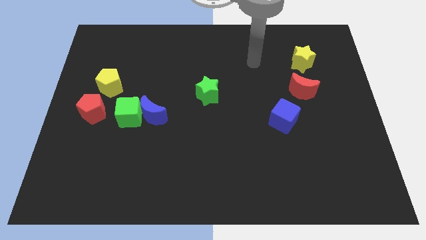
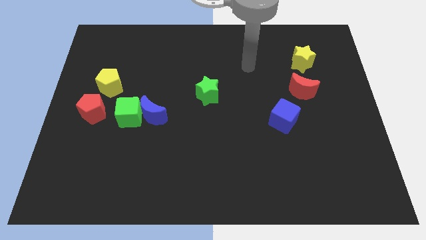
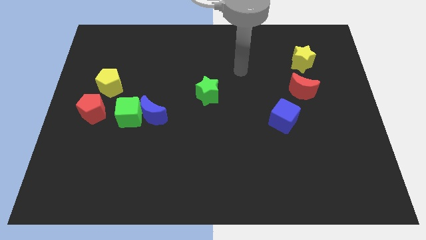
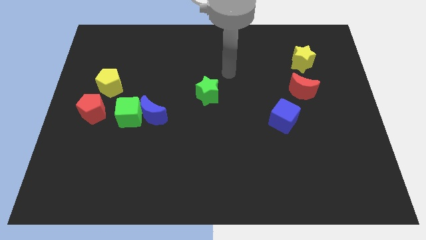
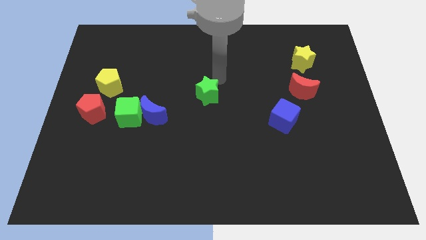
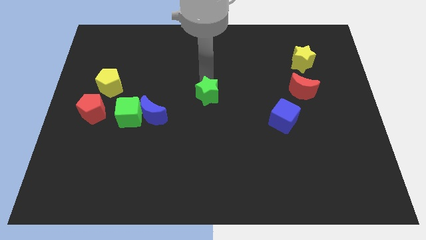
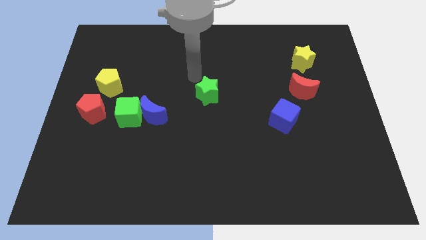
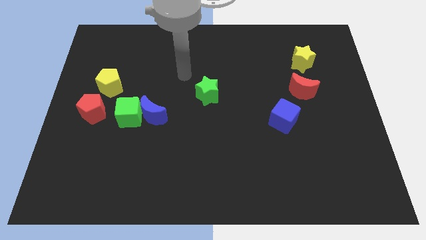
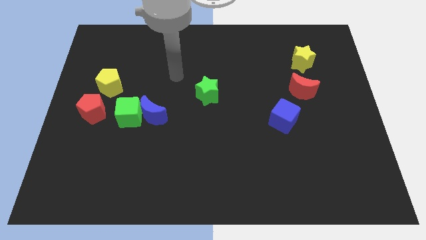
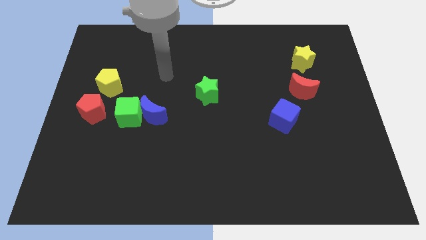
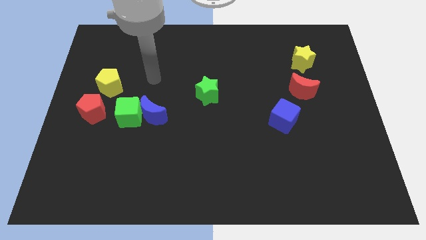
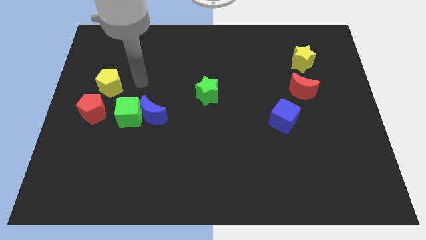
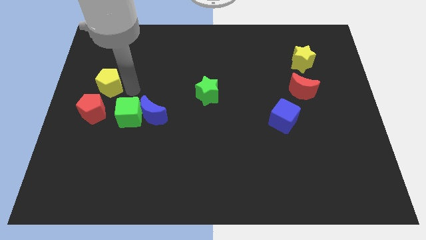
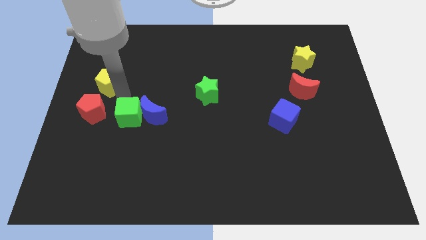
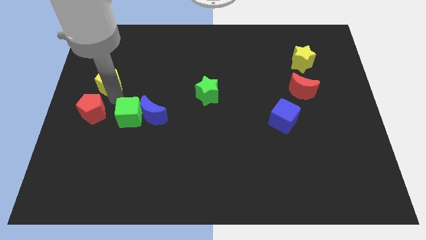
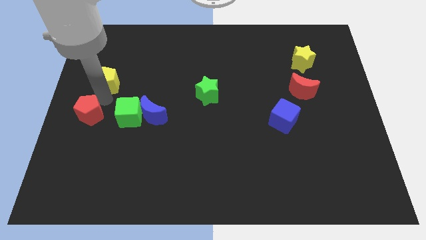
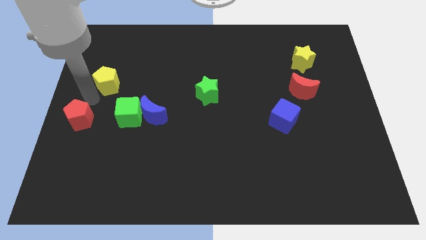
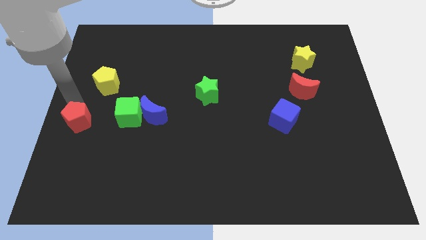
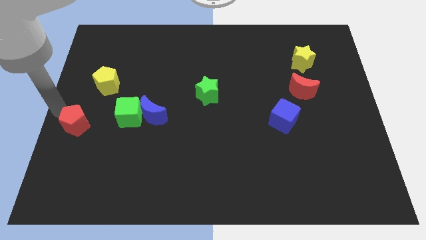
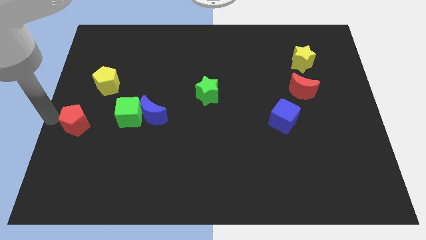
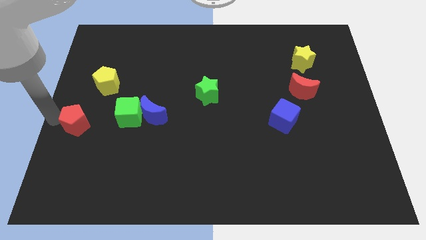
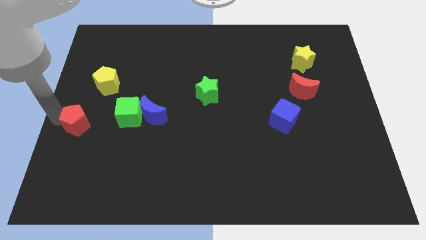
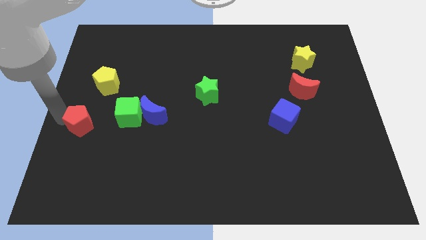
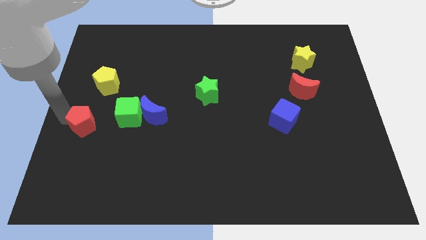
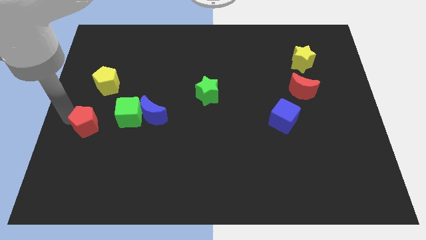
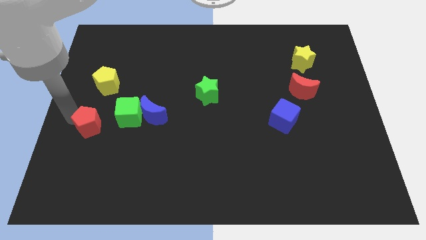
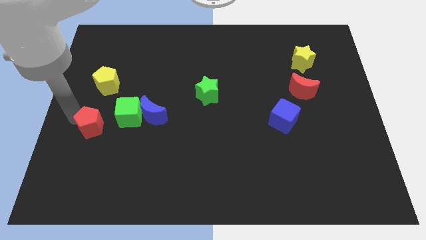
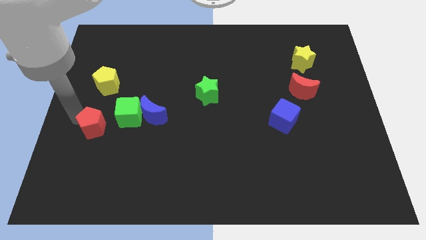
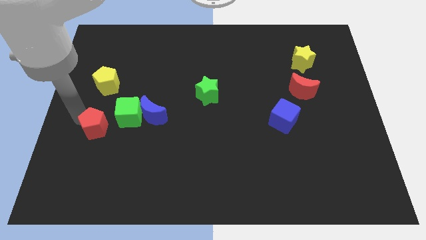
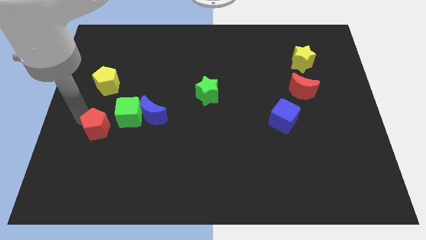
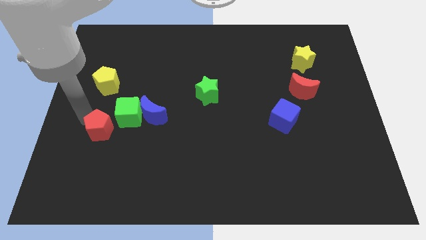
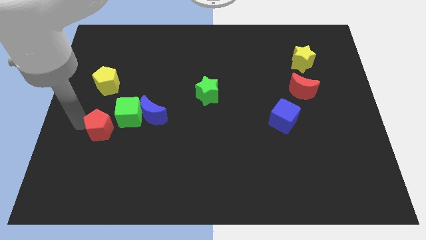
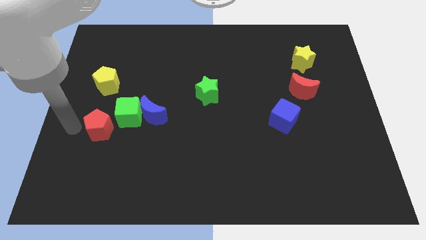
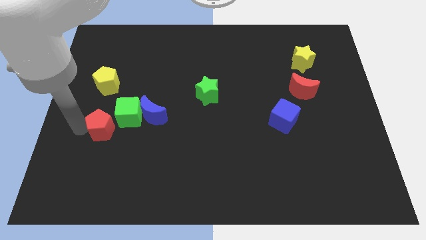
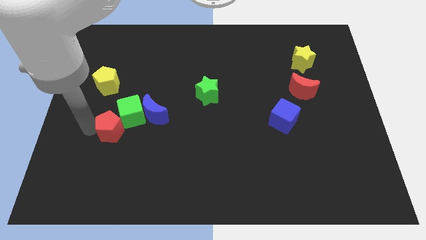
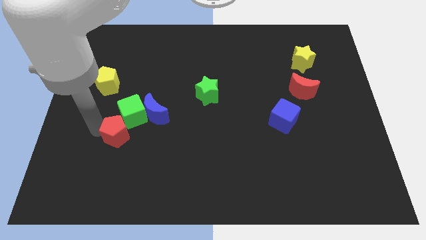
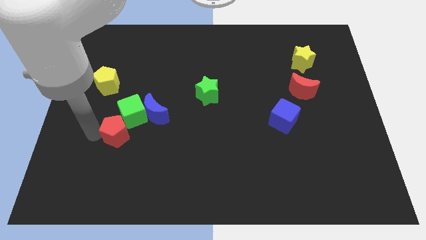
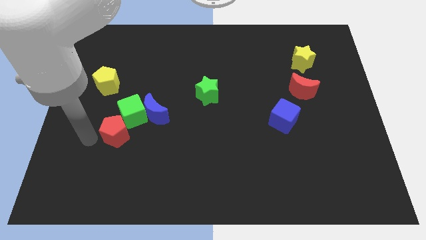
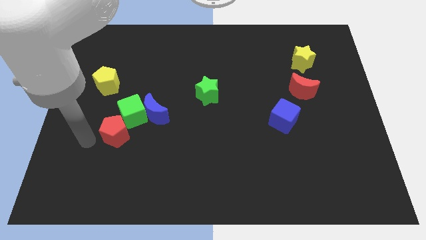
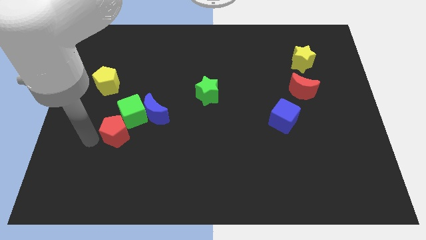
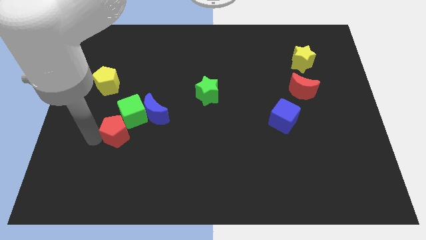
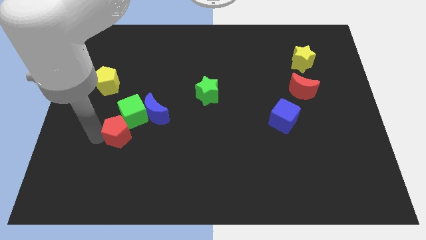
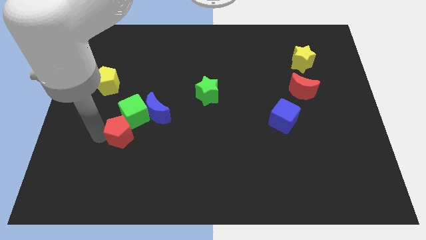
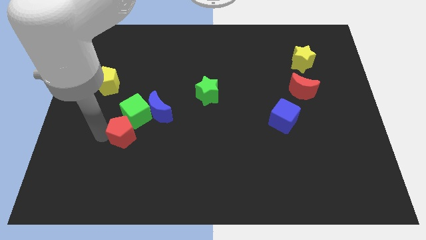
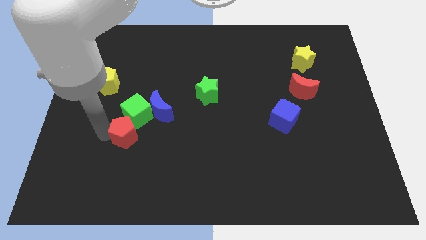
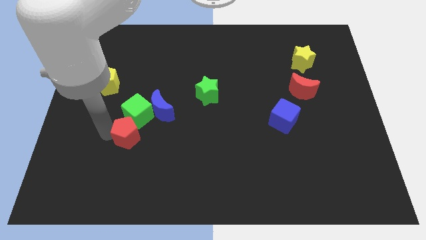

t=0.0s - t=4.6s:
move the red pentagon somewhat right

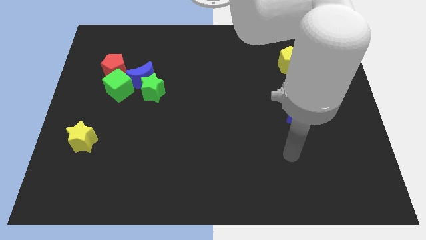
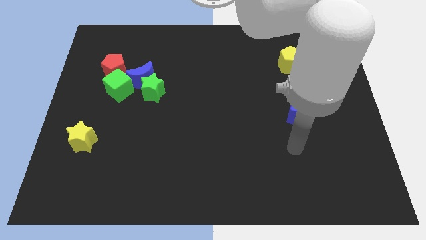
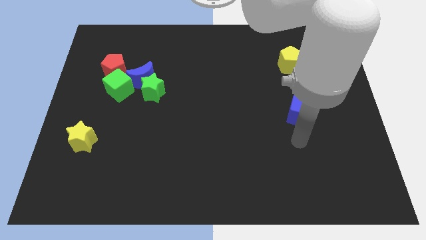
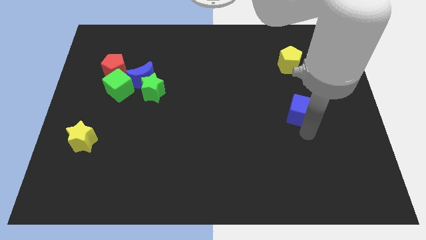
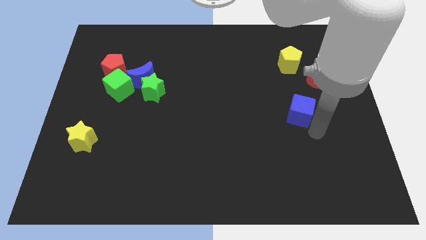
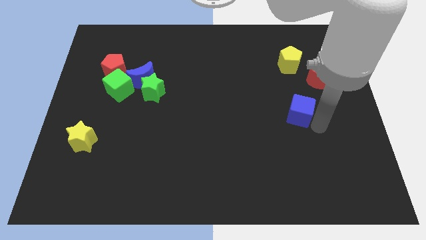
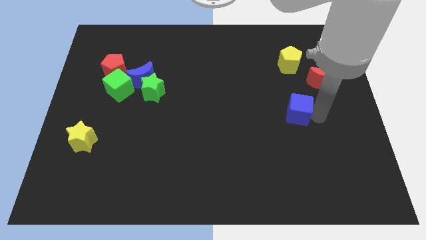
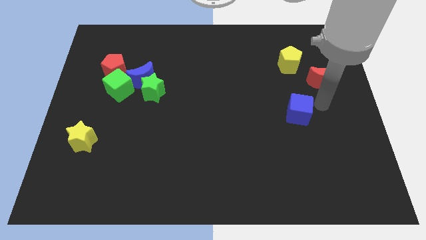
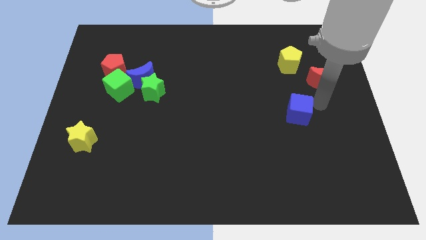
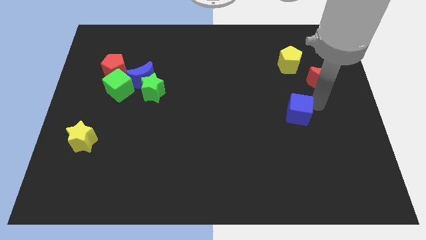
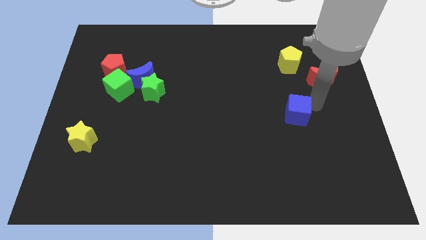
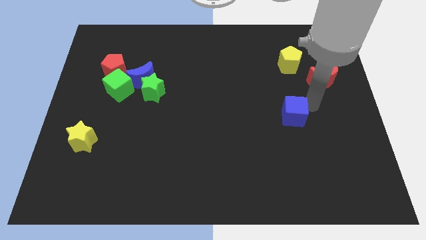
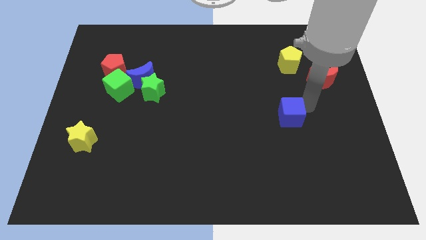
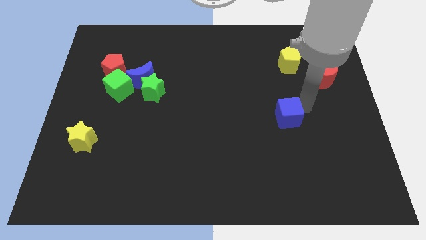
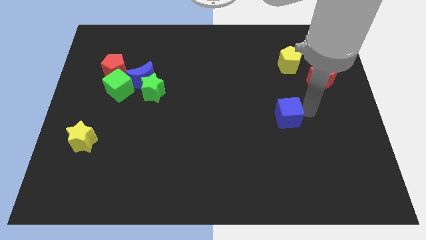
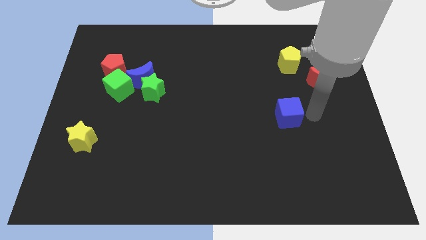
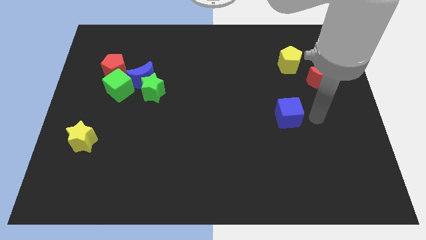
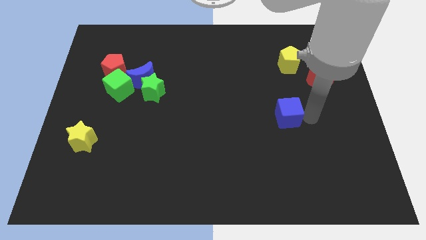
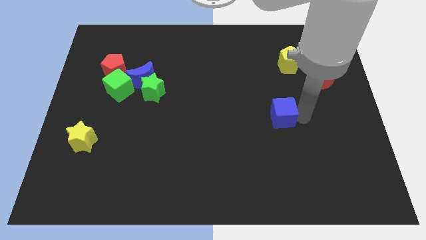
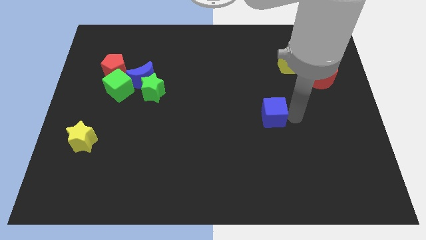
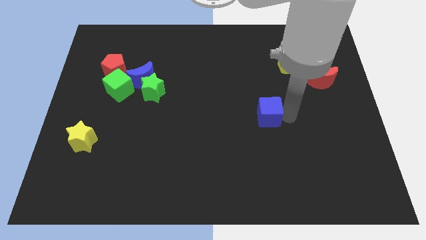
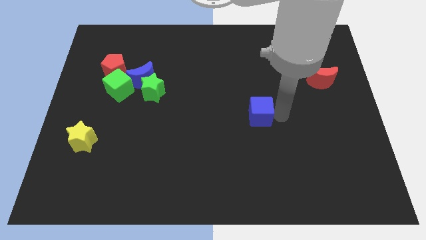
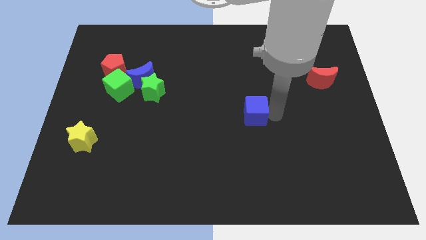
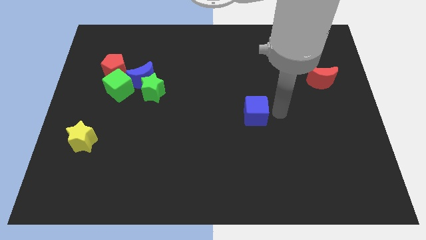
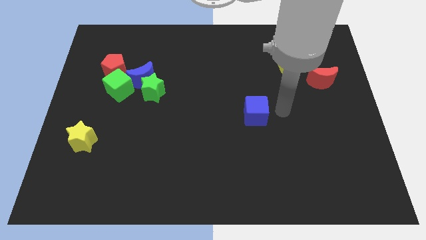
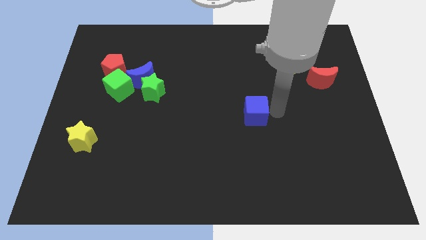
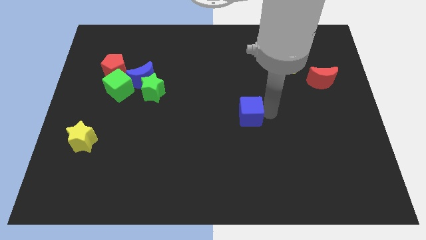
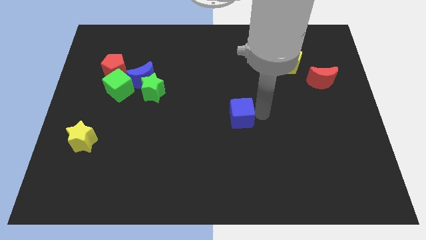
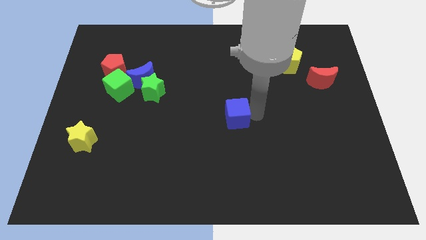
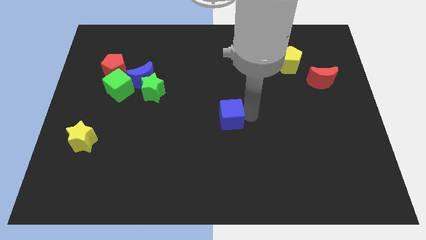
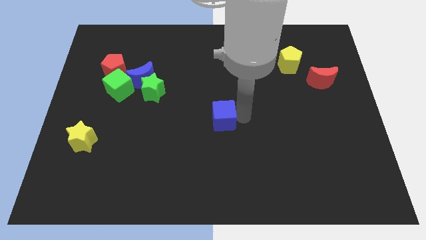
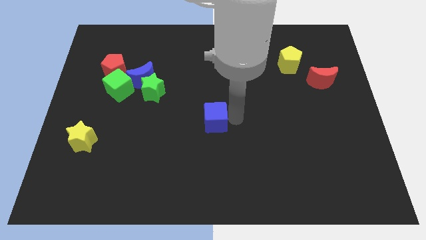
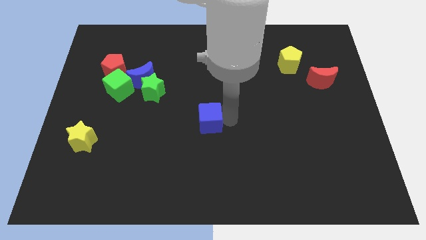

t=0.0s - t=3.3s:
push the blue cube to the left

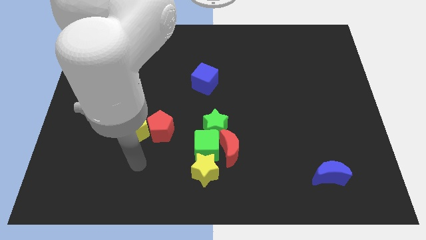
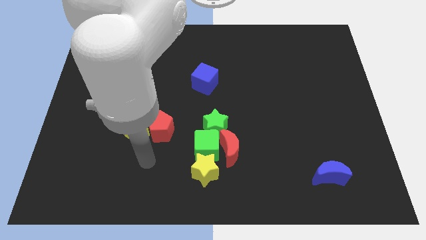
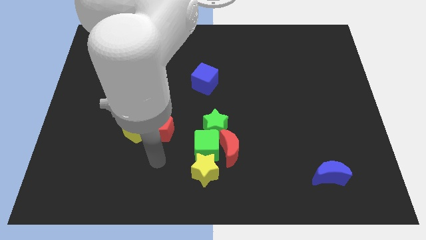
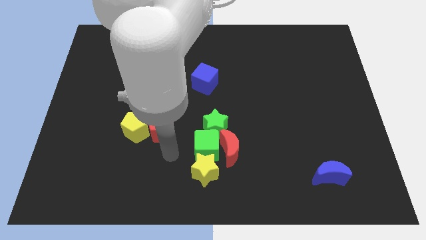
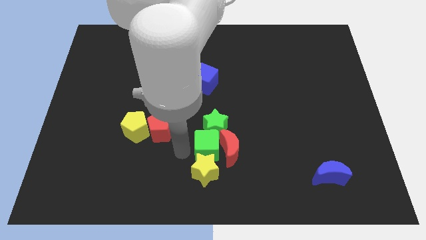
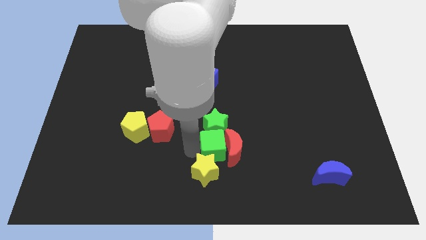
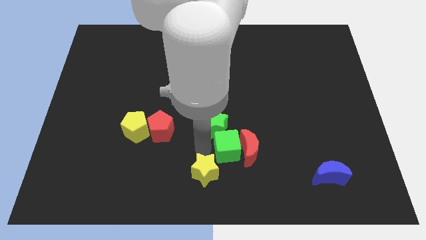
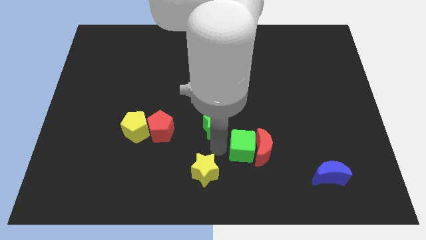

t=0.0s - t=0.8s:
move the red moon a little to the right
